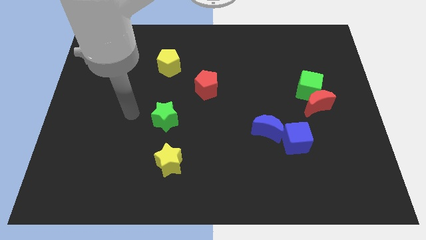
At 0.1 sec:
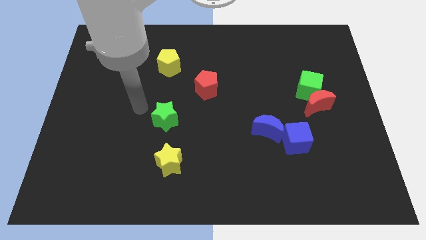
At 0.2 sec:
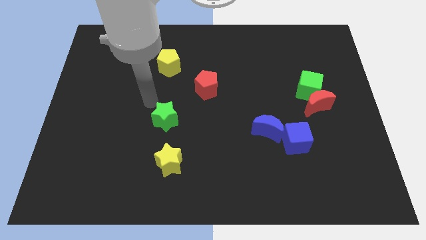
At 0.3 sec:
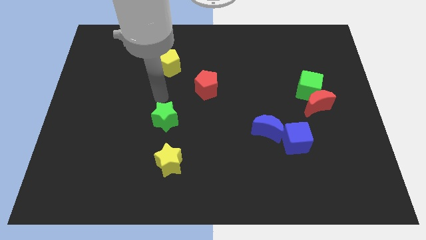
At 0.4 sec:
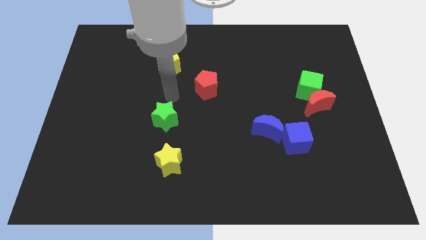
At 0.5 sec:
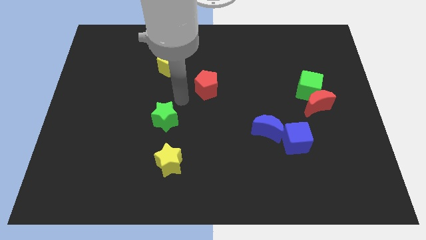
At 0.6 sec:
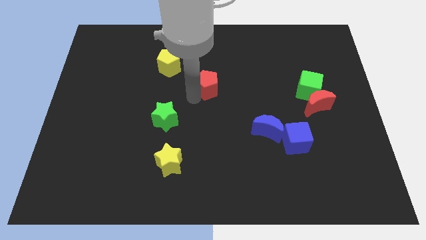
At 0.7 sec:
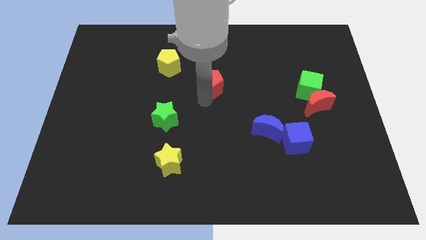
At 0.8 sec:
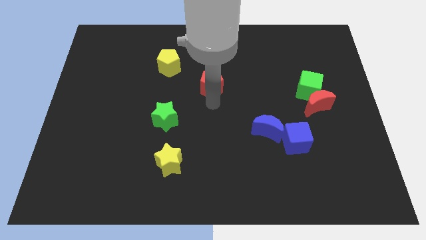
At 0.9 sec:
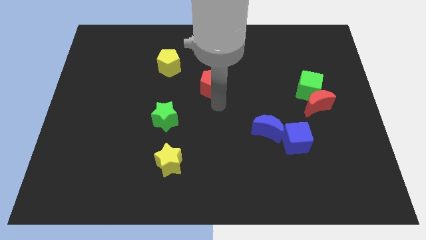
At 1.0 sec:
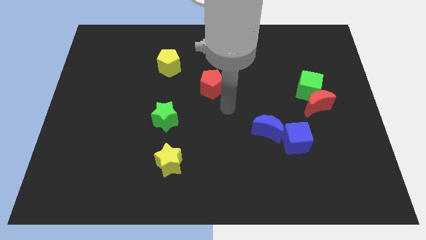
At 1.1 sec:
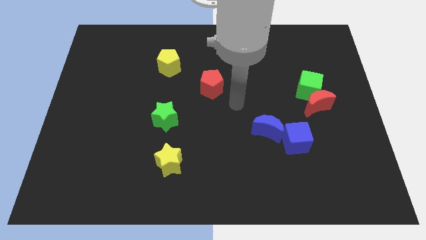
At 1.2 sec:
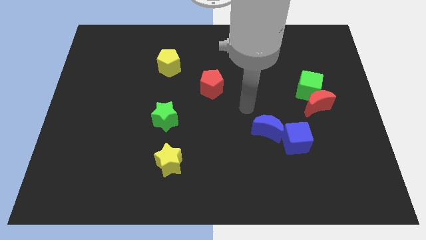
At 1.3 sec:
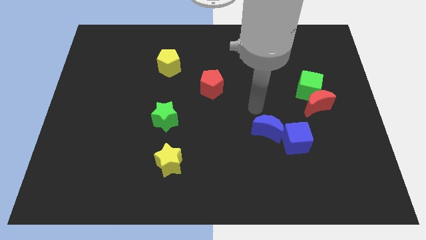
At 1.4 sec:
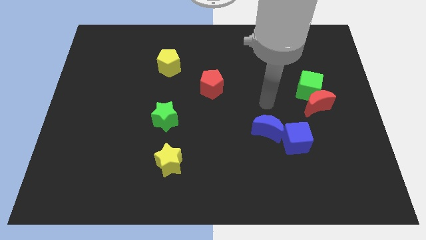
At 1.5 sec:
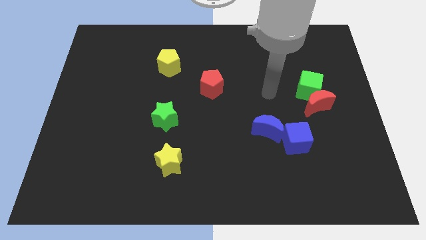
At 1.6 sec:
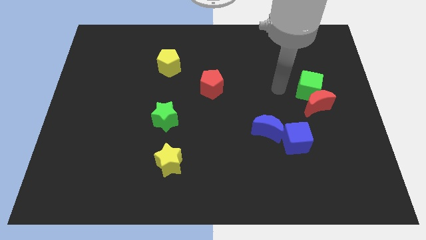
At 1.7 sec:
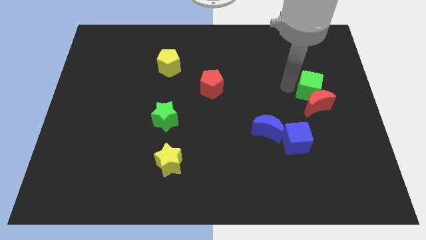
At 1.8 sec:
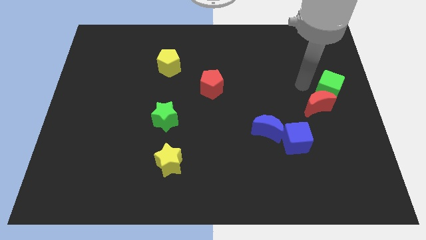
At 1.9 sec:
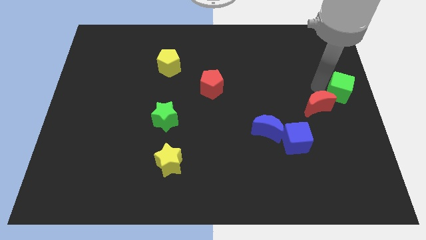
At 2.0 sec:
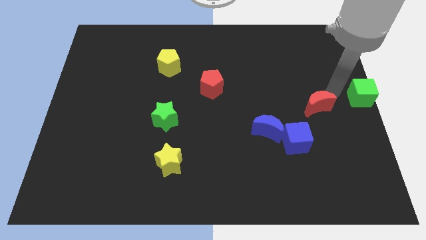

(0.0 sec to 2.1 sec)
move the red moon away from the green cube

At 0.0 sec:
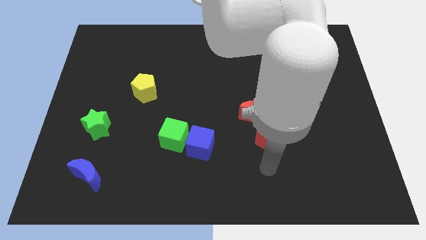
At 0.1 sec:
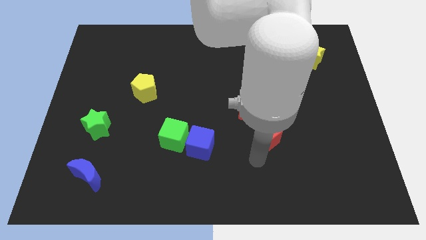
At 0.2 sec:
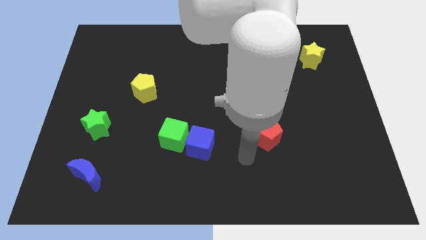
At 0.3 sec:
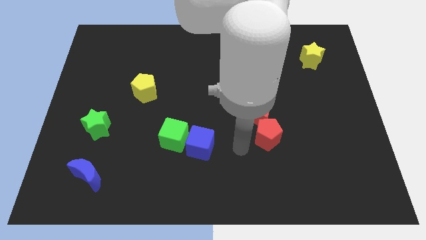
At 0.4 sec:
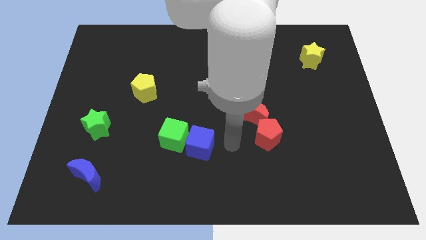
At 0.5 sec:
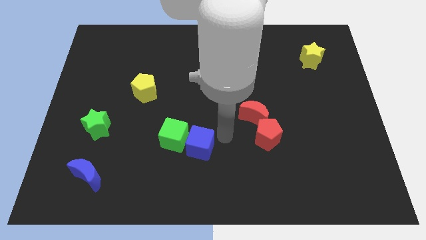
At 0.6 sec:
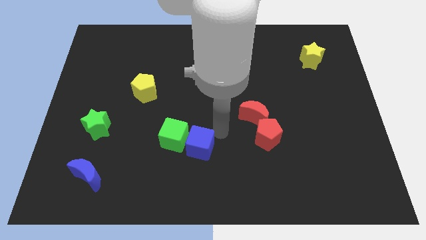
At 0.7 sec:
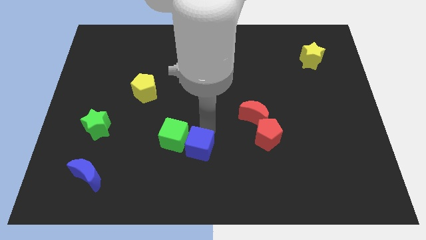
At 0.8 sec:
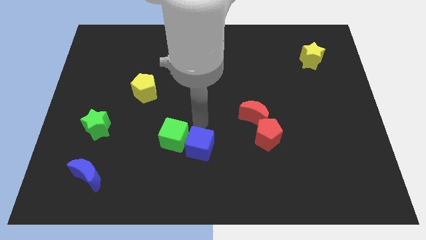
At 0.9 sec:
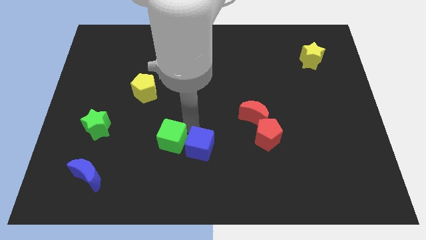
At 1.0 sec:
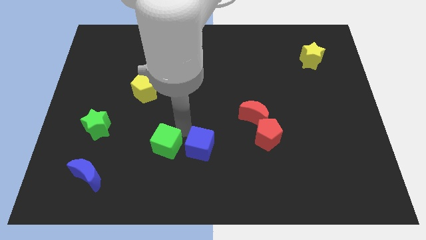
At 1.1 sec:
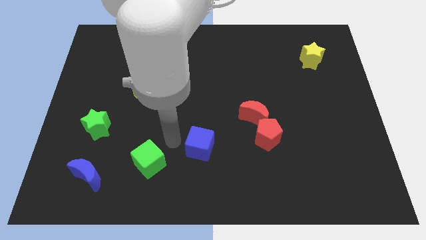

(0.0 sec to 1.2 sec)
pull the blue cube apart from the green cube

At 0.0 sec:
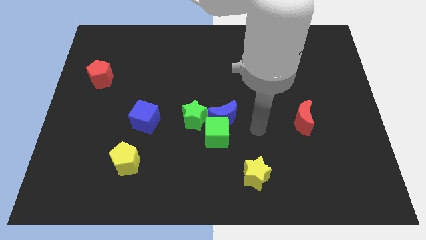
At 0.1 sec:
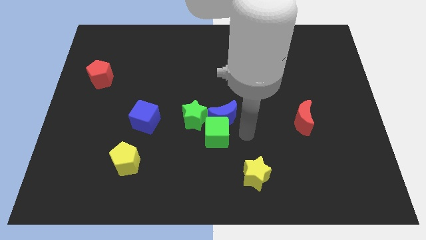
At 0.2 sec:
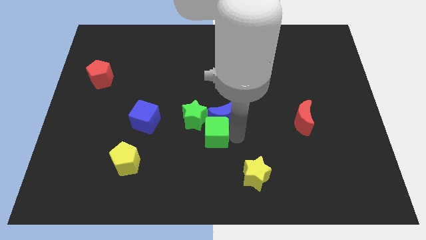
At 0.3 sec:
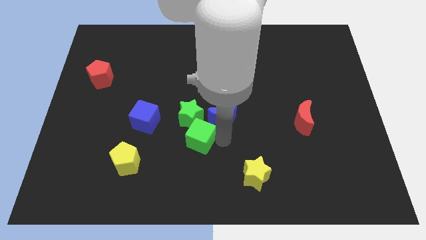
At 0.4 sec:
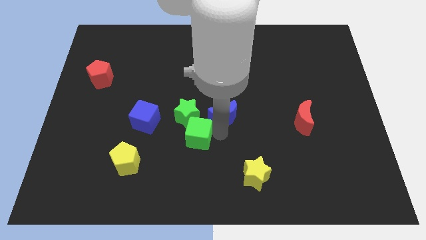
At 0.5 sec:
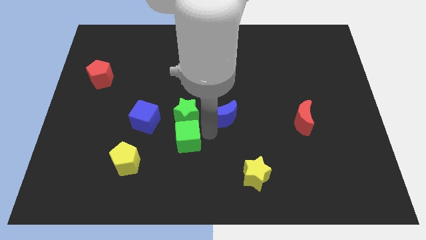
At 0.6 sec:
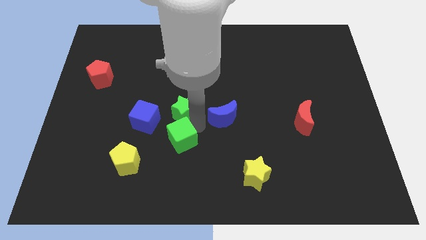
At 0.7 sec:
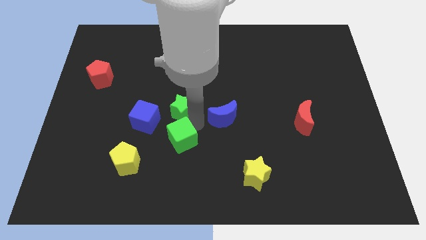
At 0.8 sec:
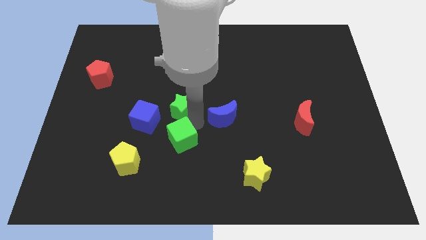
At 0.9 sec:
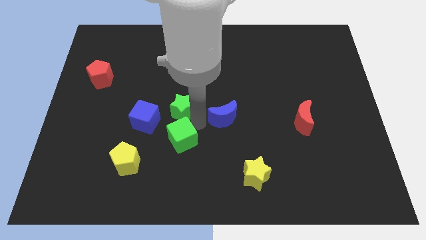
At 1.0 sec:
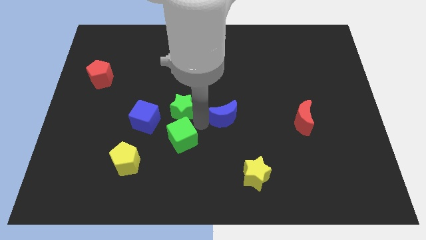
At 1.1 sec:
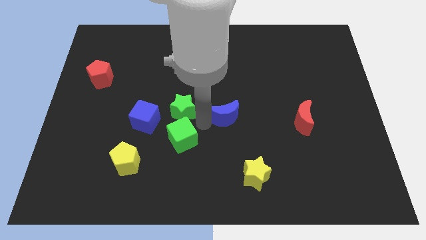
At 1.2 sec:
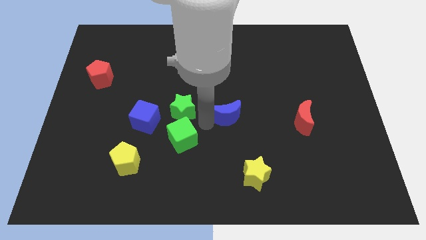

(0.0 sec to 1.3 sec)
separate the blue moon from the green cube and green star

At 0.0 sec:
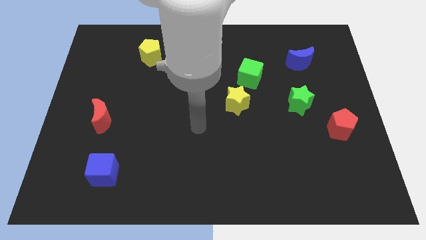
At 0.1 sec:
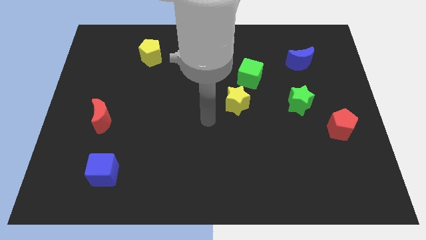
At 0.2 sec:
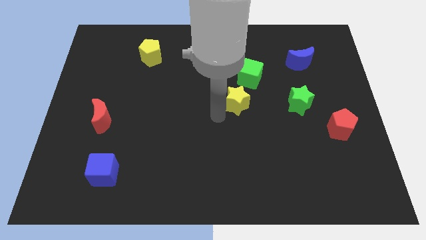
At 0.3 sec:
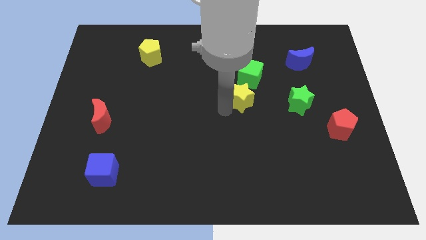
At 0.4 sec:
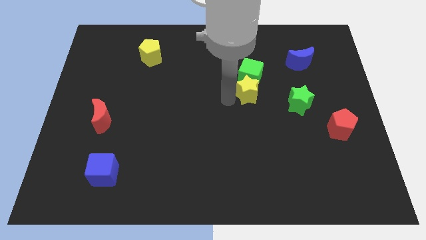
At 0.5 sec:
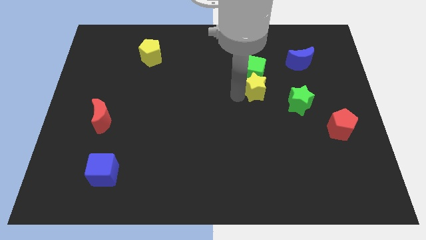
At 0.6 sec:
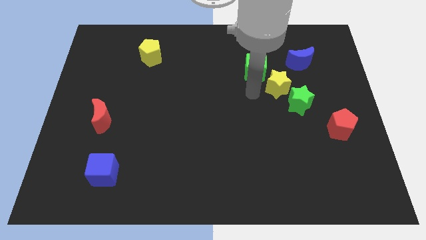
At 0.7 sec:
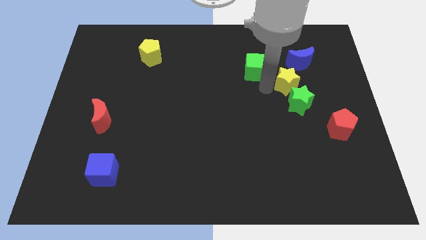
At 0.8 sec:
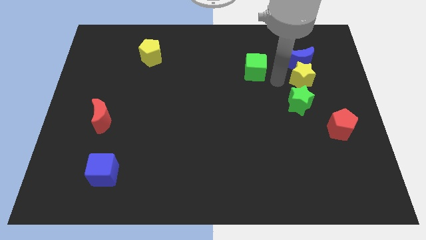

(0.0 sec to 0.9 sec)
pull the green cube apart from the yellow star

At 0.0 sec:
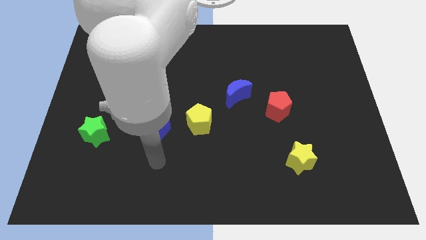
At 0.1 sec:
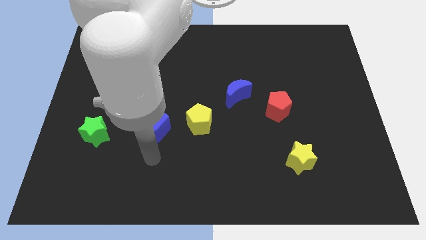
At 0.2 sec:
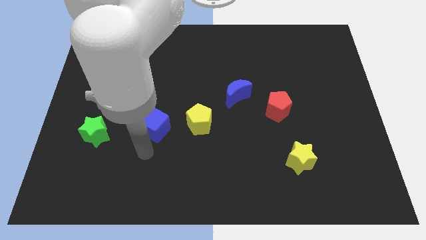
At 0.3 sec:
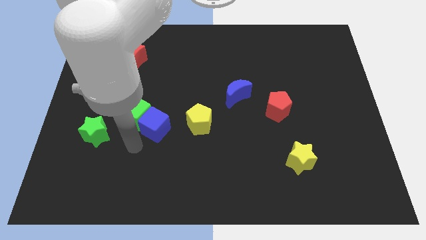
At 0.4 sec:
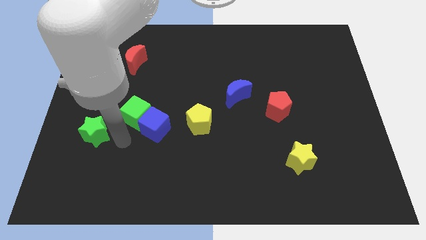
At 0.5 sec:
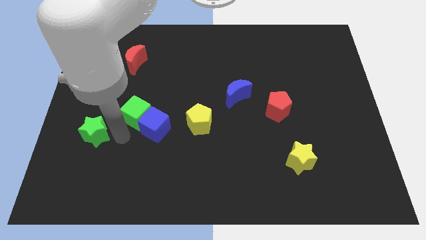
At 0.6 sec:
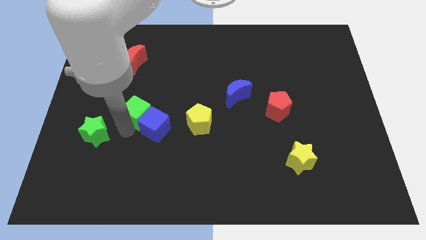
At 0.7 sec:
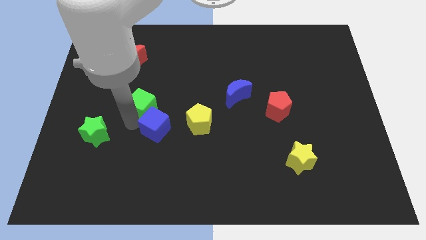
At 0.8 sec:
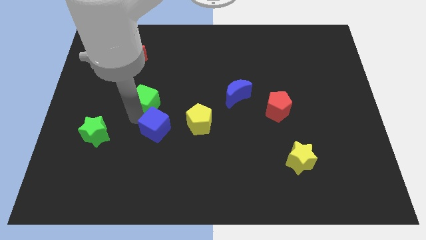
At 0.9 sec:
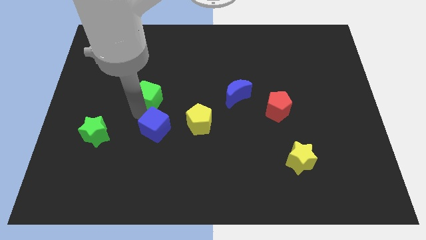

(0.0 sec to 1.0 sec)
move the green cube away from the blue cube and green star

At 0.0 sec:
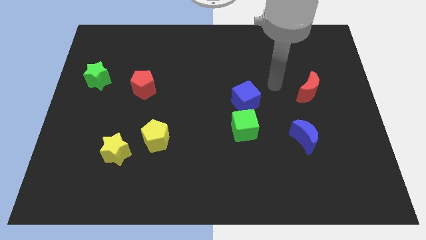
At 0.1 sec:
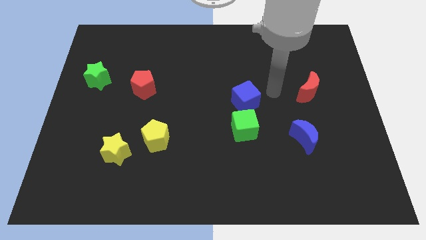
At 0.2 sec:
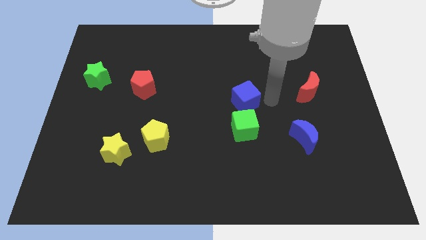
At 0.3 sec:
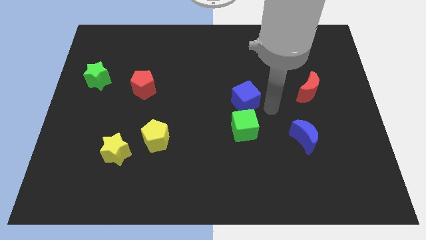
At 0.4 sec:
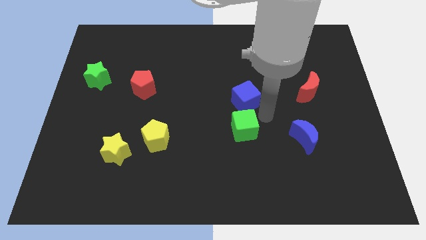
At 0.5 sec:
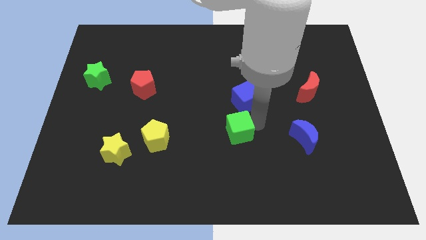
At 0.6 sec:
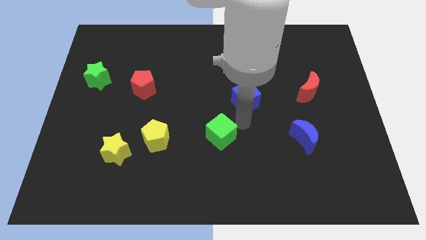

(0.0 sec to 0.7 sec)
separate the blue cube from the green cube

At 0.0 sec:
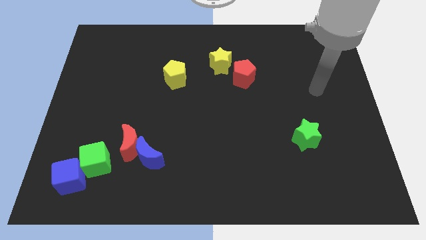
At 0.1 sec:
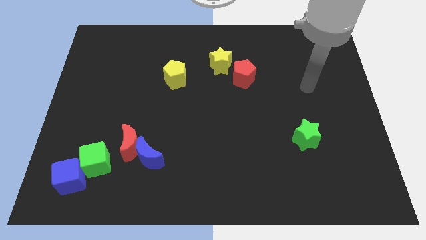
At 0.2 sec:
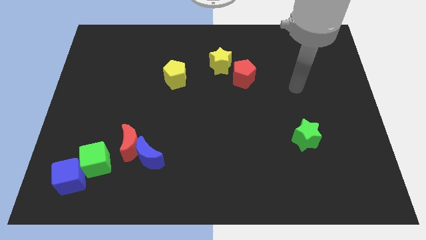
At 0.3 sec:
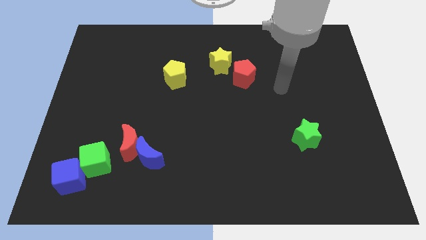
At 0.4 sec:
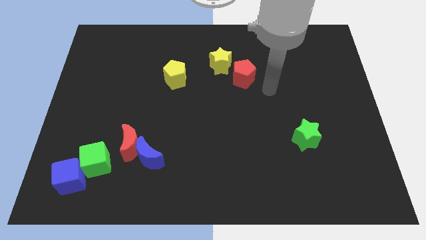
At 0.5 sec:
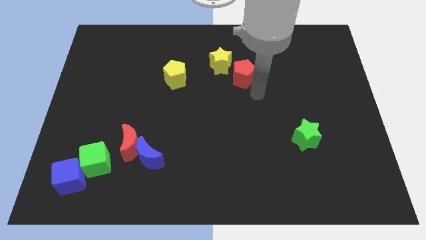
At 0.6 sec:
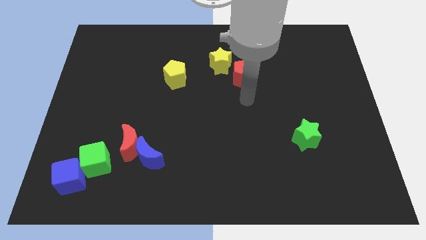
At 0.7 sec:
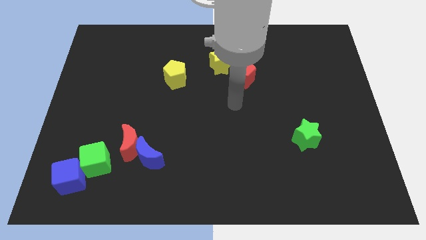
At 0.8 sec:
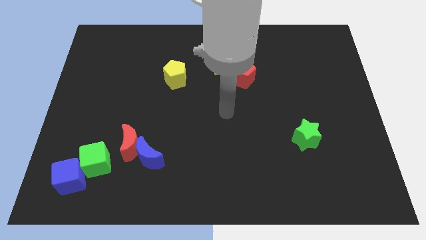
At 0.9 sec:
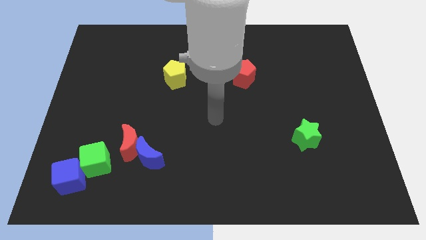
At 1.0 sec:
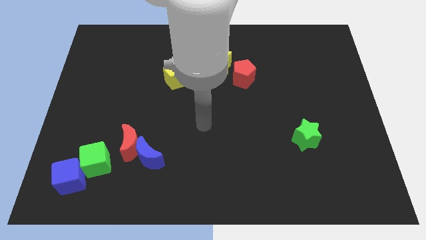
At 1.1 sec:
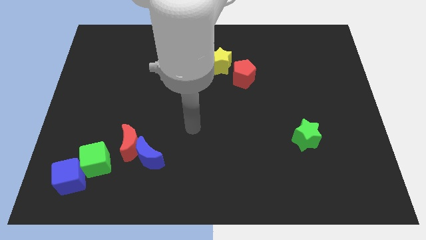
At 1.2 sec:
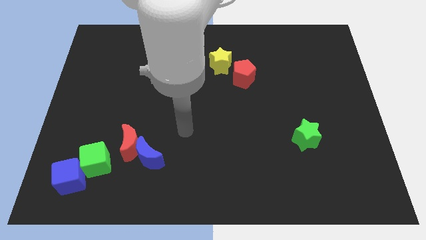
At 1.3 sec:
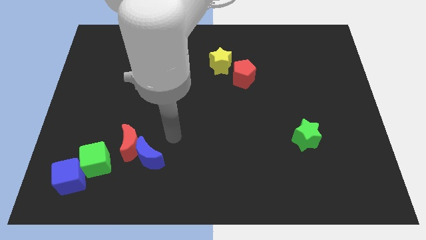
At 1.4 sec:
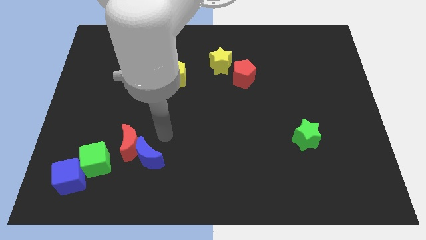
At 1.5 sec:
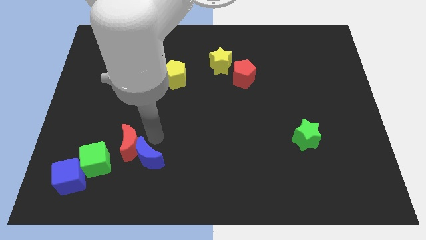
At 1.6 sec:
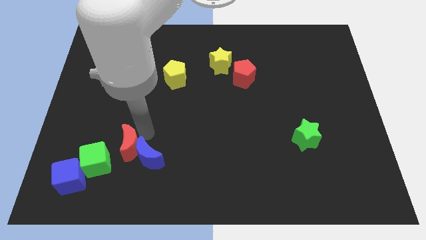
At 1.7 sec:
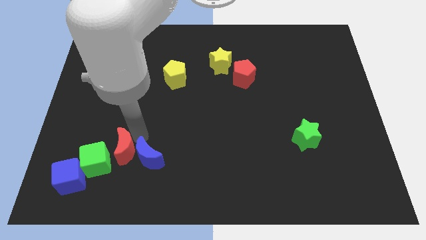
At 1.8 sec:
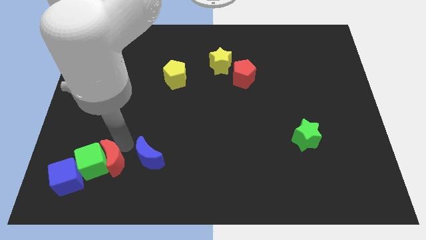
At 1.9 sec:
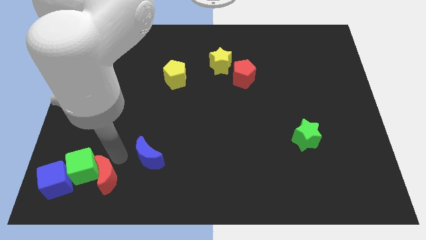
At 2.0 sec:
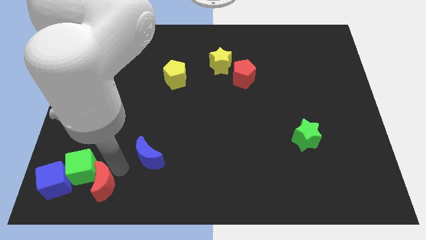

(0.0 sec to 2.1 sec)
pull the blue moon apart from the red moon
